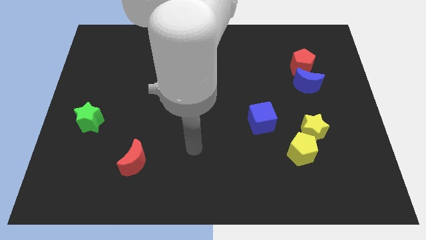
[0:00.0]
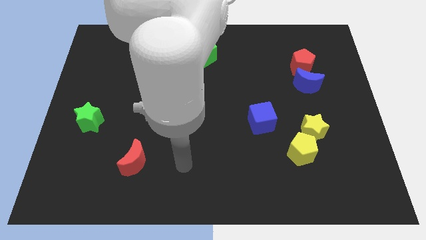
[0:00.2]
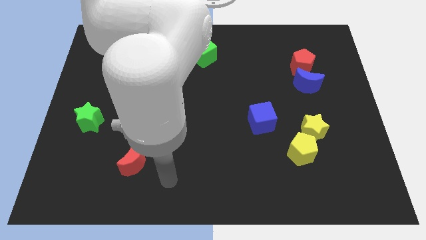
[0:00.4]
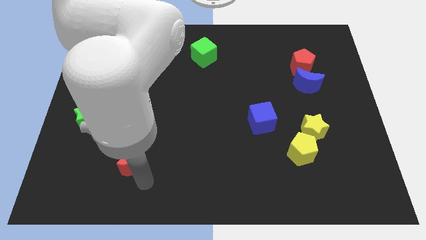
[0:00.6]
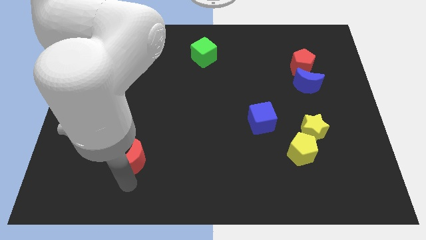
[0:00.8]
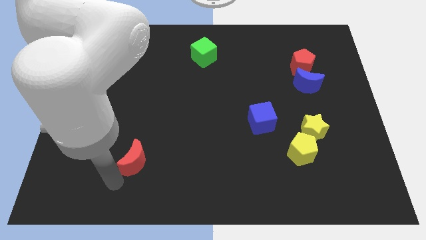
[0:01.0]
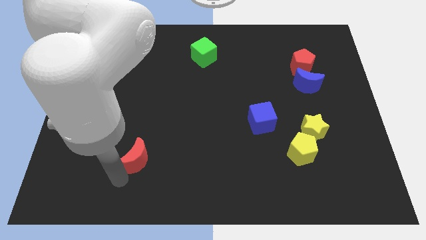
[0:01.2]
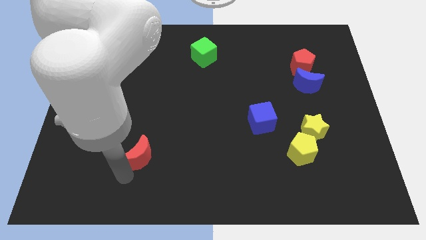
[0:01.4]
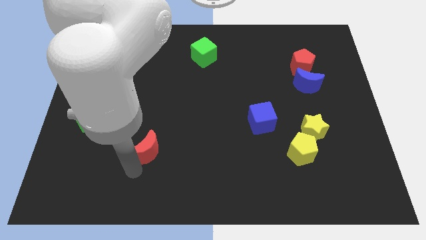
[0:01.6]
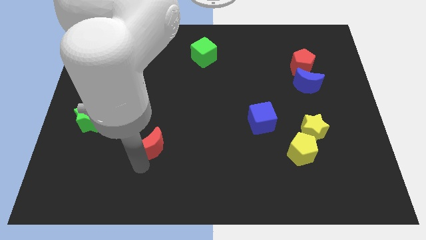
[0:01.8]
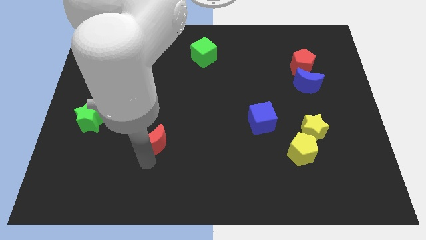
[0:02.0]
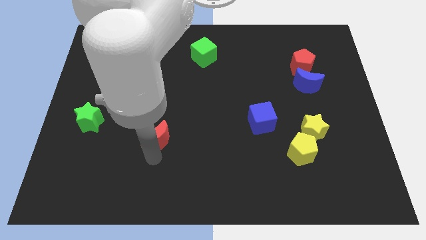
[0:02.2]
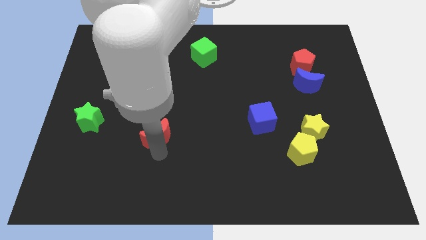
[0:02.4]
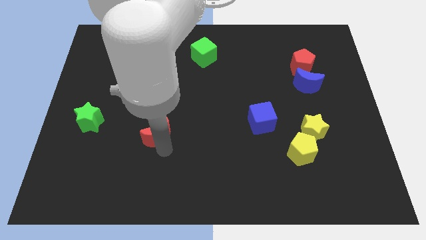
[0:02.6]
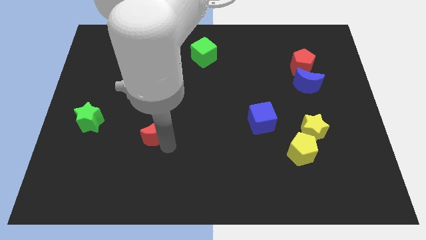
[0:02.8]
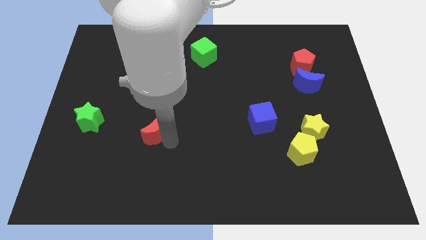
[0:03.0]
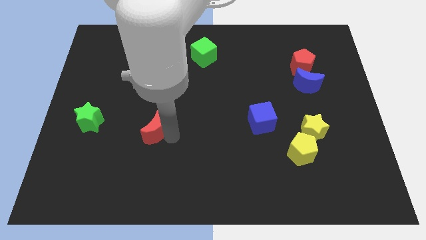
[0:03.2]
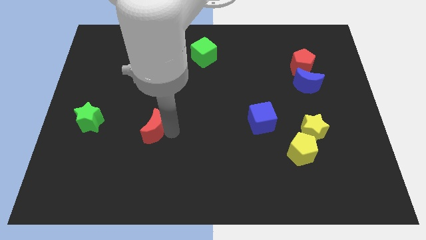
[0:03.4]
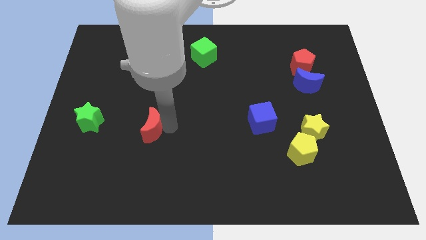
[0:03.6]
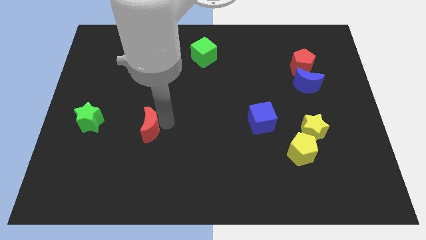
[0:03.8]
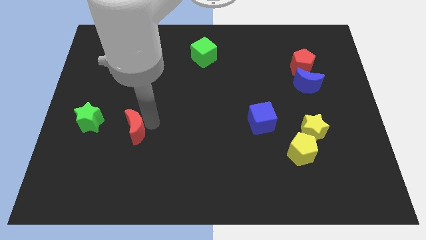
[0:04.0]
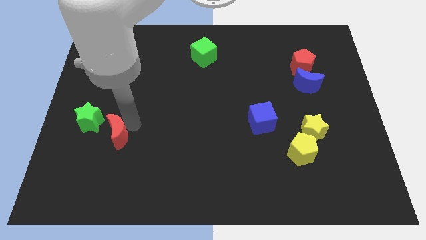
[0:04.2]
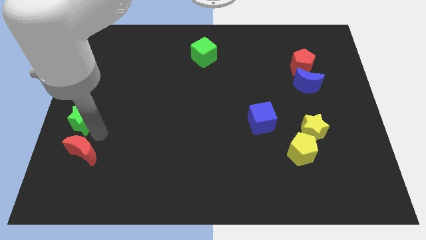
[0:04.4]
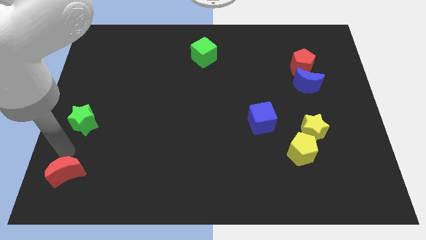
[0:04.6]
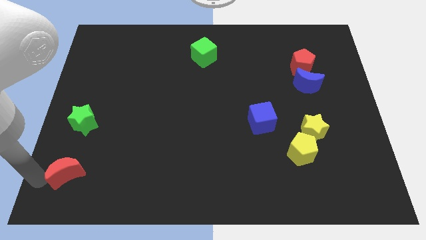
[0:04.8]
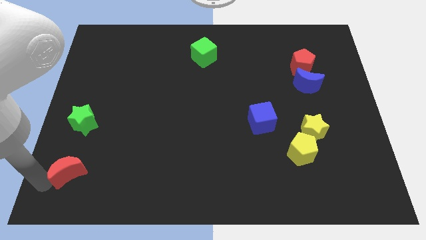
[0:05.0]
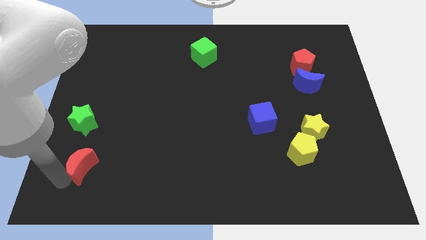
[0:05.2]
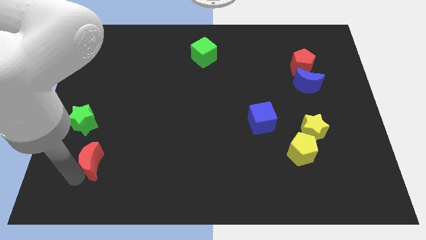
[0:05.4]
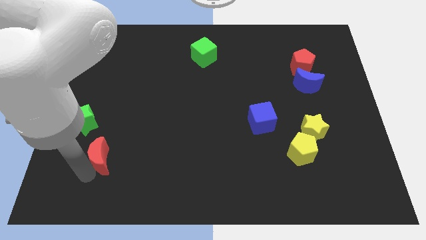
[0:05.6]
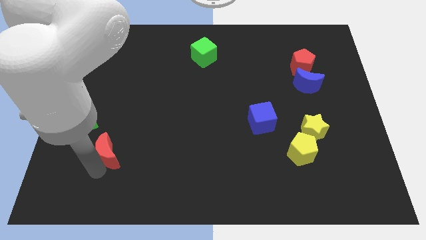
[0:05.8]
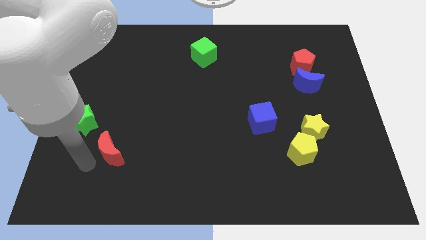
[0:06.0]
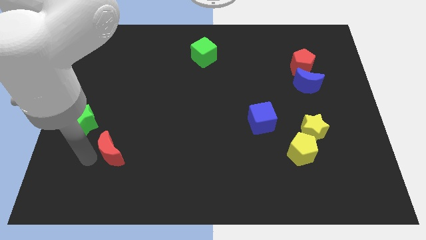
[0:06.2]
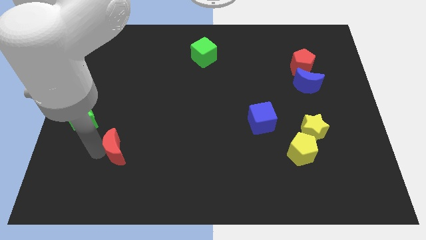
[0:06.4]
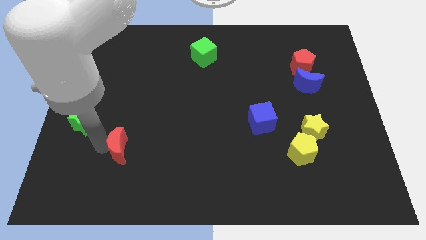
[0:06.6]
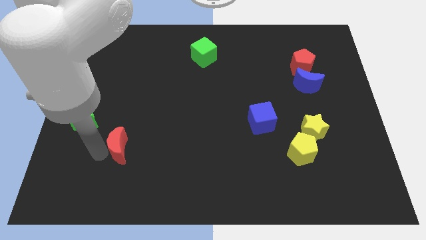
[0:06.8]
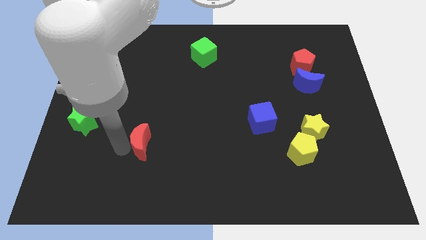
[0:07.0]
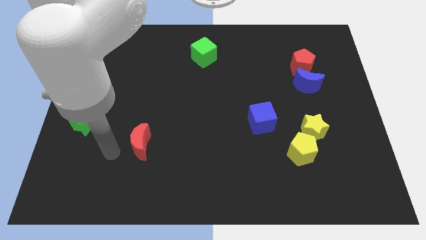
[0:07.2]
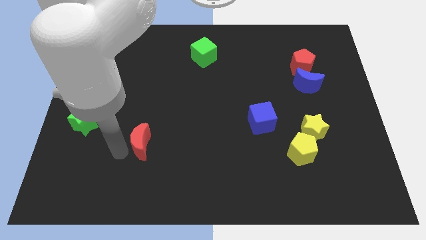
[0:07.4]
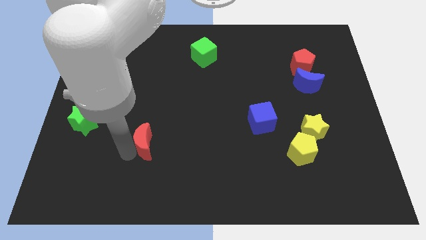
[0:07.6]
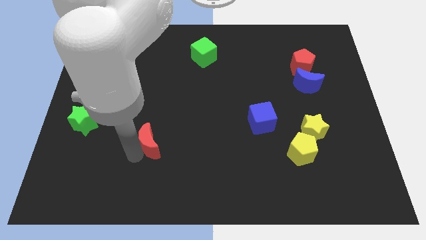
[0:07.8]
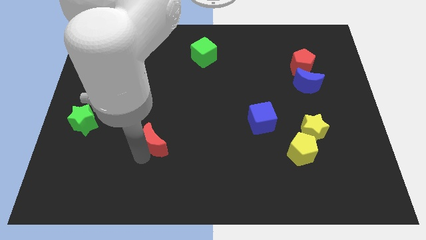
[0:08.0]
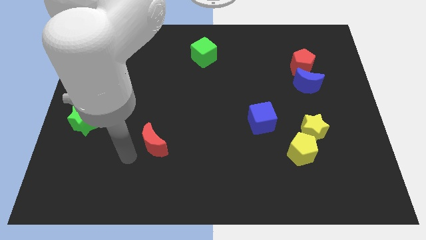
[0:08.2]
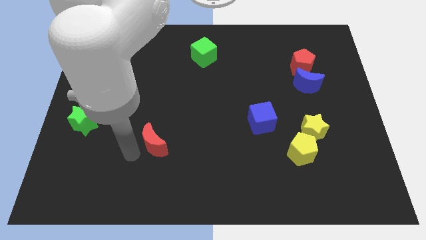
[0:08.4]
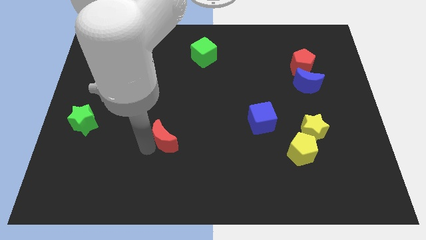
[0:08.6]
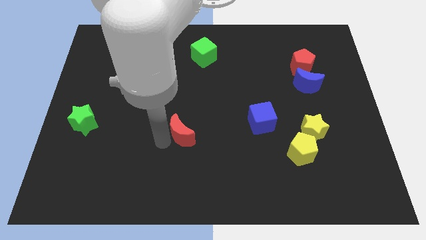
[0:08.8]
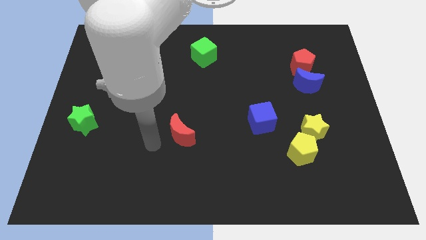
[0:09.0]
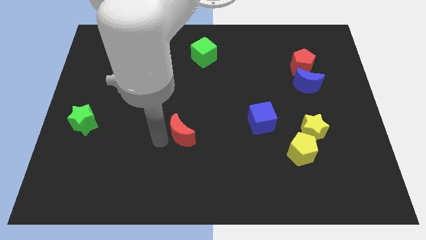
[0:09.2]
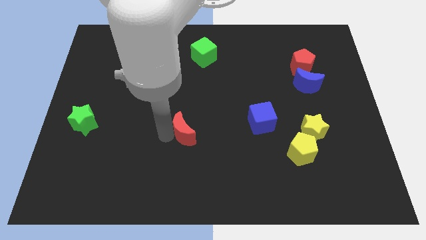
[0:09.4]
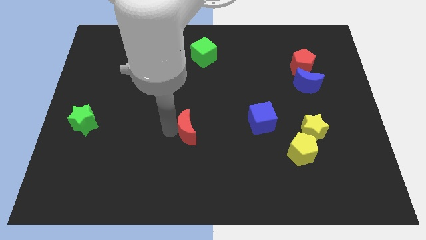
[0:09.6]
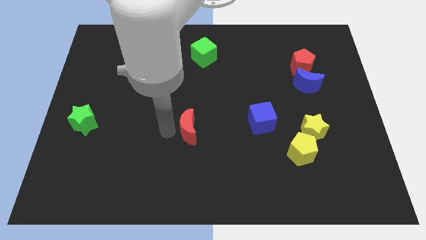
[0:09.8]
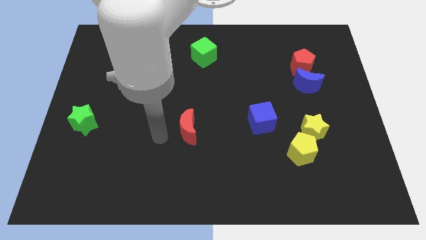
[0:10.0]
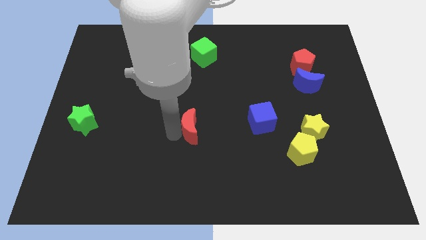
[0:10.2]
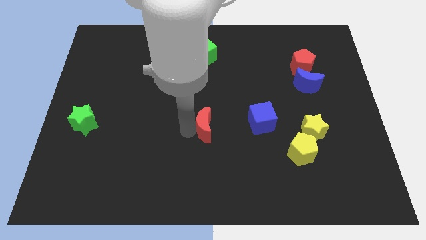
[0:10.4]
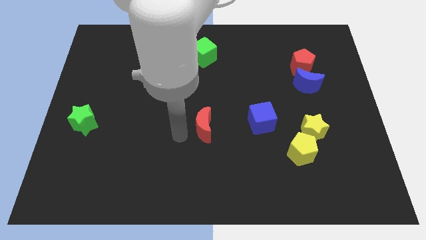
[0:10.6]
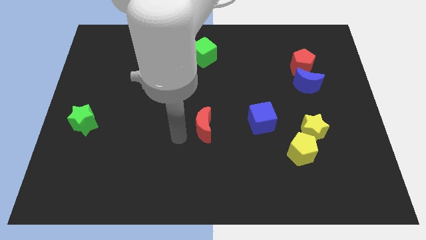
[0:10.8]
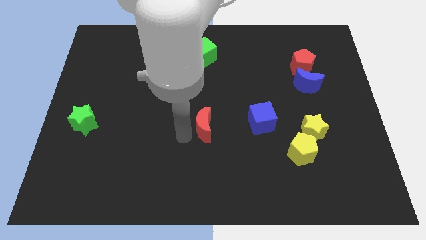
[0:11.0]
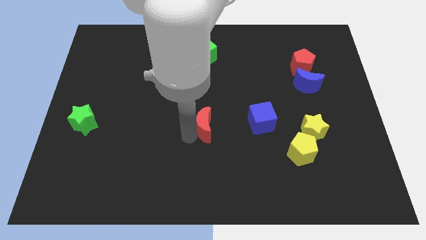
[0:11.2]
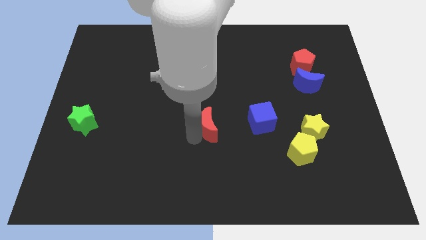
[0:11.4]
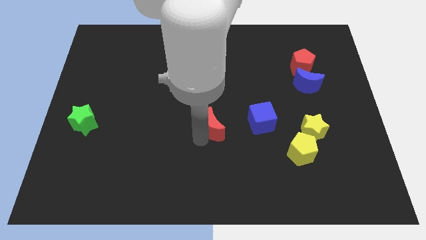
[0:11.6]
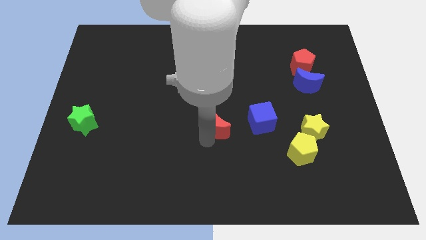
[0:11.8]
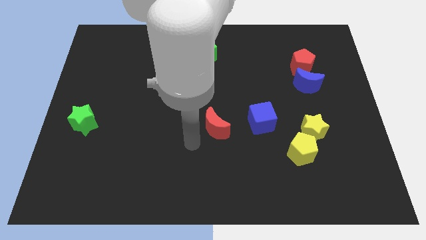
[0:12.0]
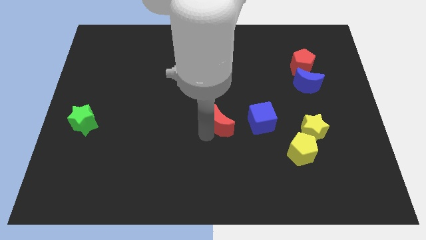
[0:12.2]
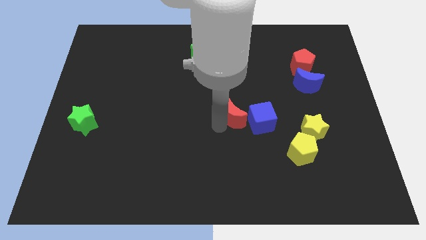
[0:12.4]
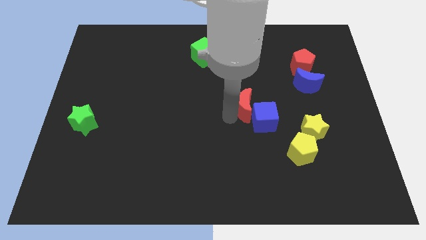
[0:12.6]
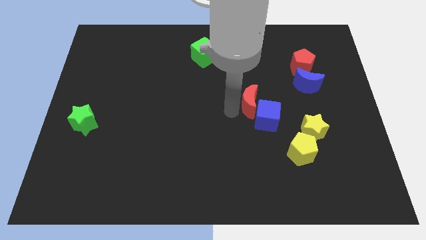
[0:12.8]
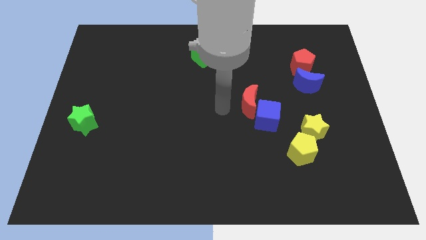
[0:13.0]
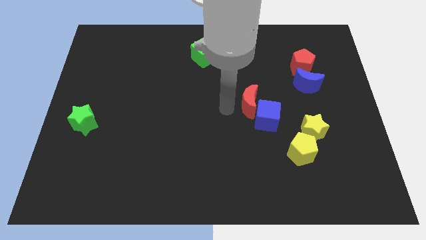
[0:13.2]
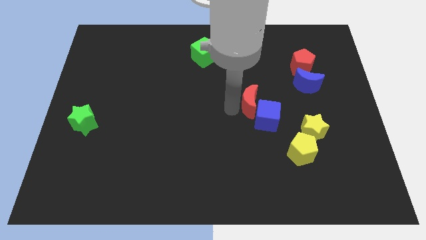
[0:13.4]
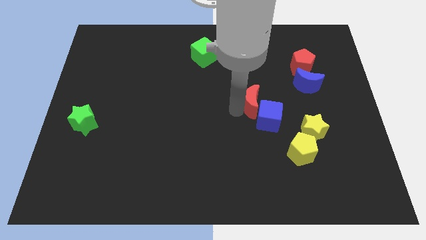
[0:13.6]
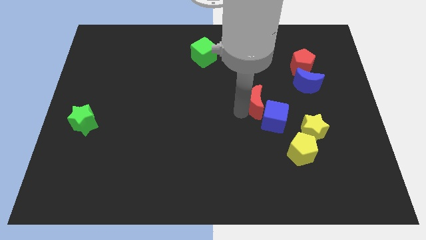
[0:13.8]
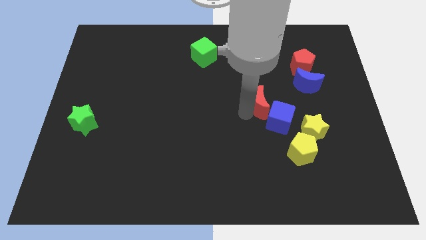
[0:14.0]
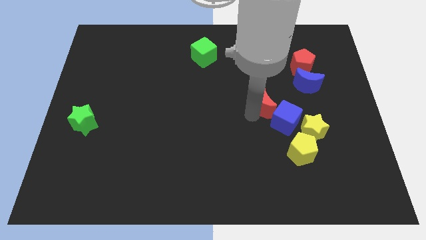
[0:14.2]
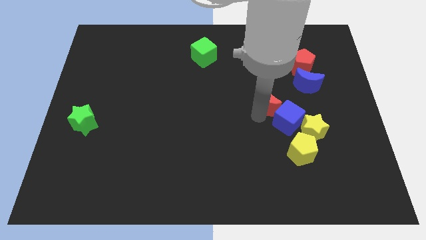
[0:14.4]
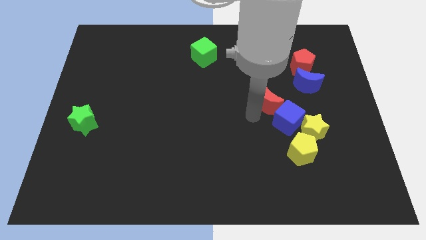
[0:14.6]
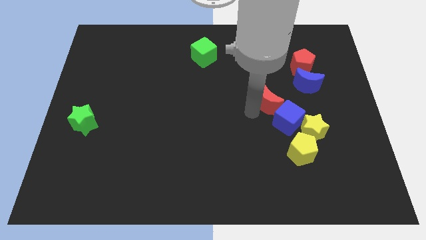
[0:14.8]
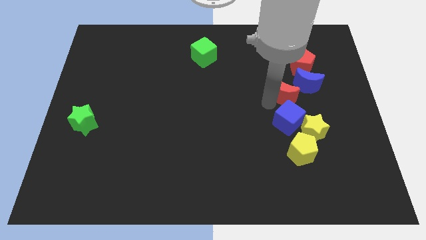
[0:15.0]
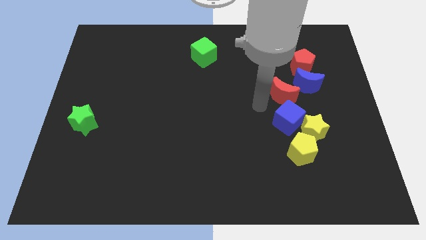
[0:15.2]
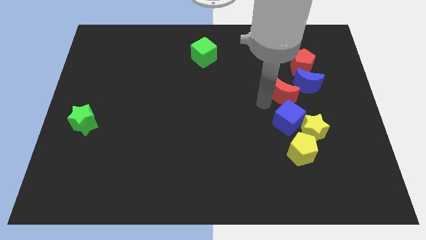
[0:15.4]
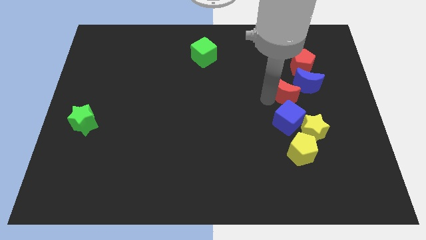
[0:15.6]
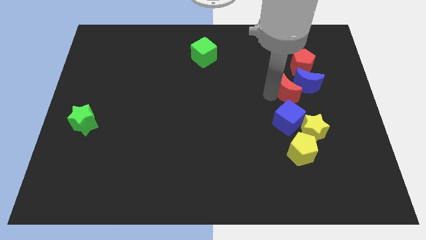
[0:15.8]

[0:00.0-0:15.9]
move the red moon towards the blue moon
